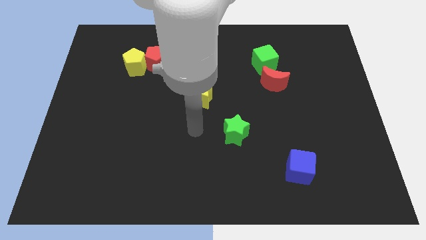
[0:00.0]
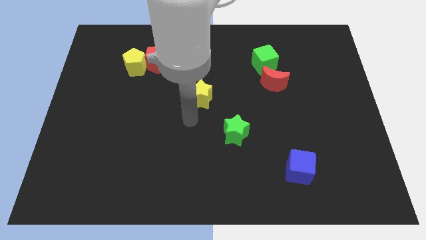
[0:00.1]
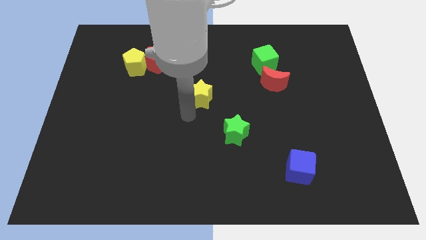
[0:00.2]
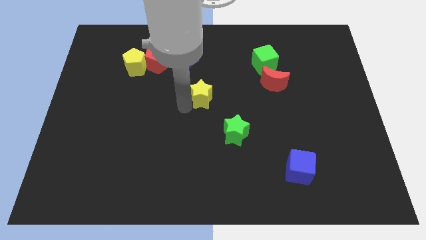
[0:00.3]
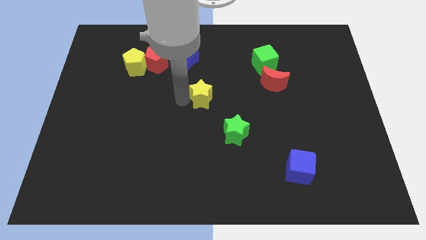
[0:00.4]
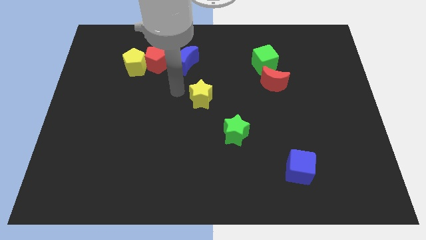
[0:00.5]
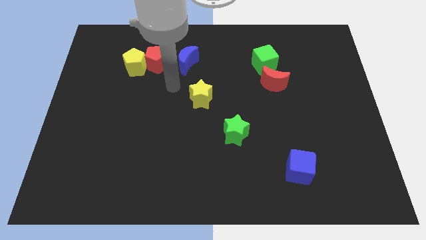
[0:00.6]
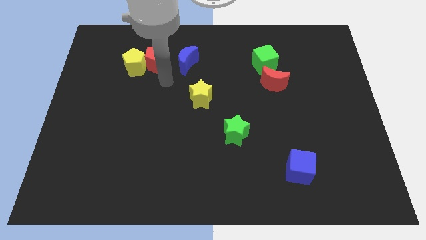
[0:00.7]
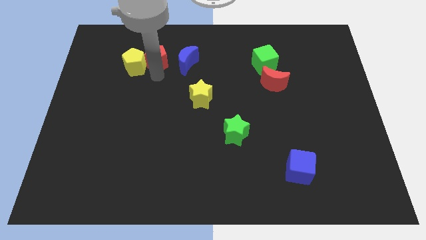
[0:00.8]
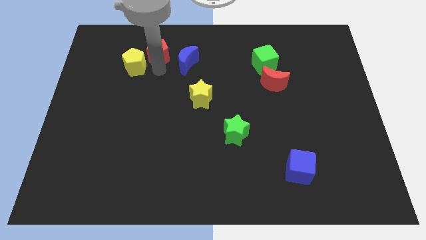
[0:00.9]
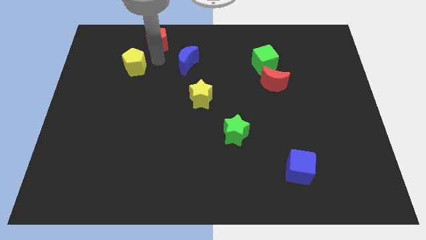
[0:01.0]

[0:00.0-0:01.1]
separate the yellow pentagon from the red pentagon

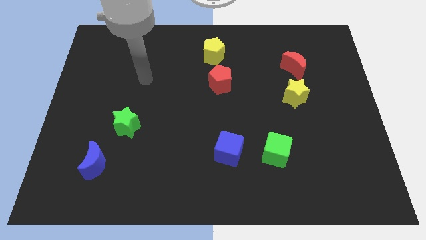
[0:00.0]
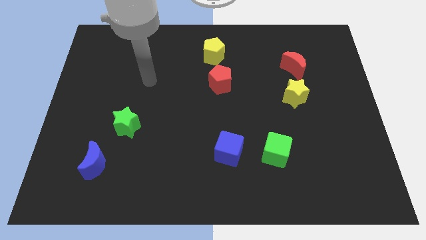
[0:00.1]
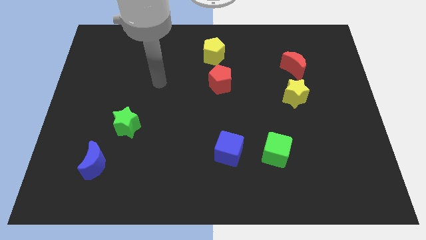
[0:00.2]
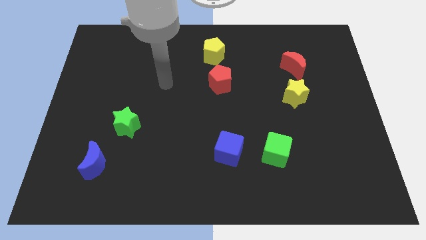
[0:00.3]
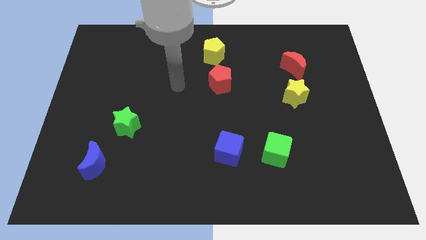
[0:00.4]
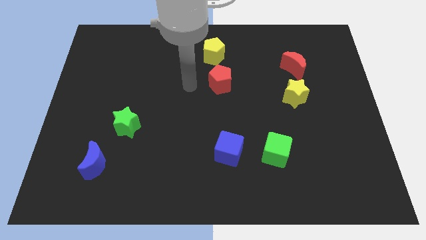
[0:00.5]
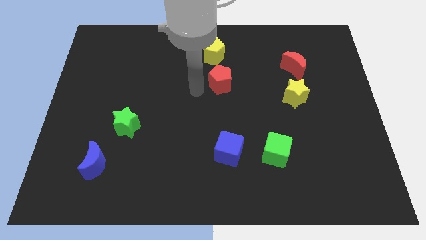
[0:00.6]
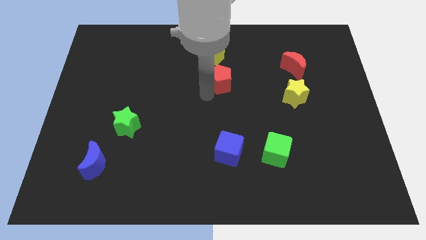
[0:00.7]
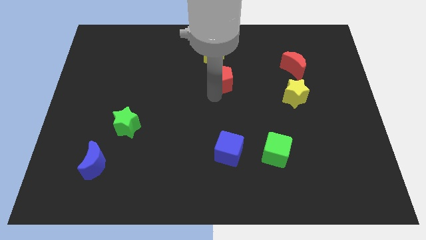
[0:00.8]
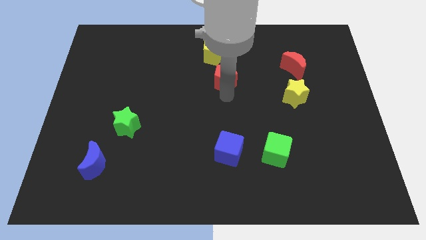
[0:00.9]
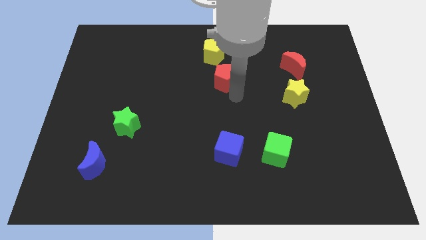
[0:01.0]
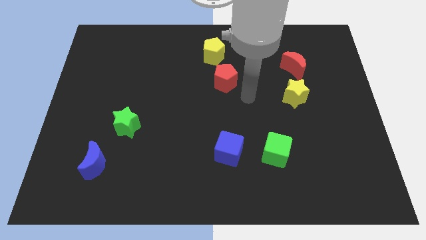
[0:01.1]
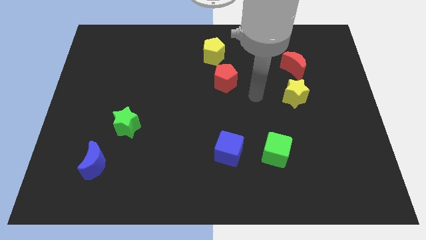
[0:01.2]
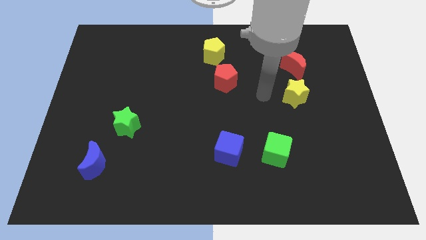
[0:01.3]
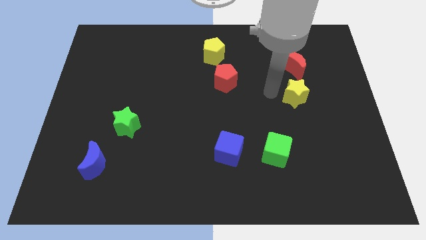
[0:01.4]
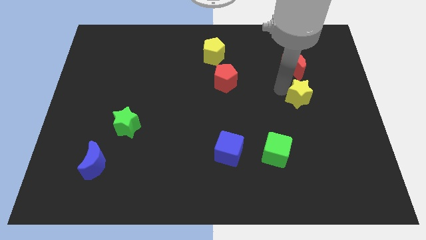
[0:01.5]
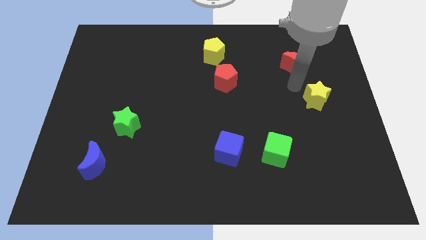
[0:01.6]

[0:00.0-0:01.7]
separate the red moon from the yellow star

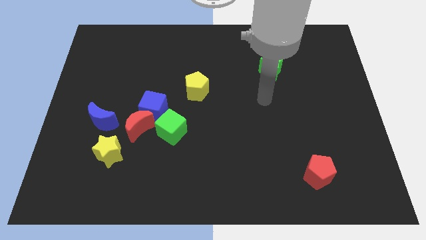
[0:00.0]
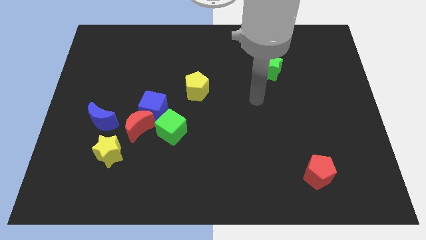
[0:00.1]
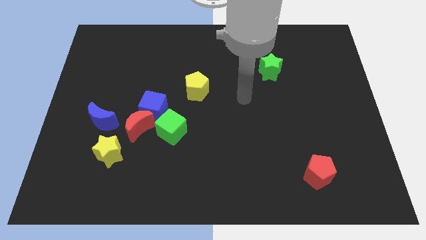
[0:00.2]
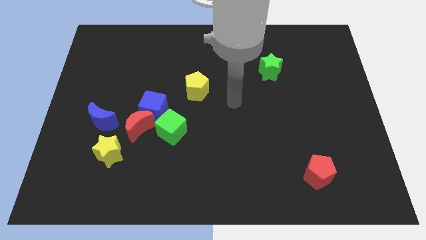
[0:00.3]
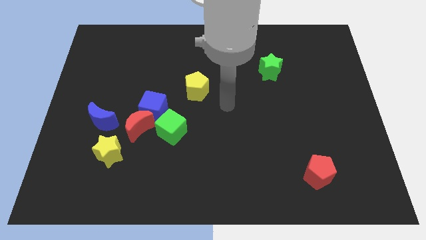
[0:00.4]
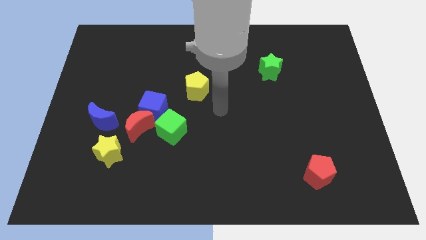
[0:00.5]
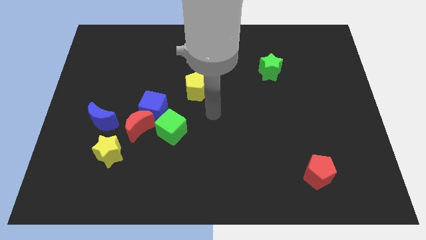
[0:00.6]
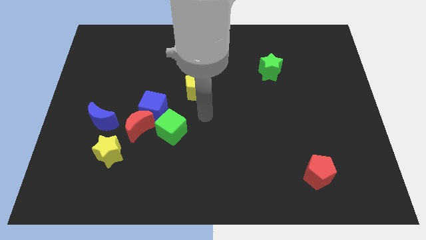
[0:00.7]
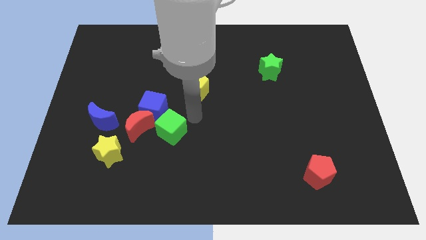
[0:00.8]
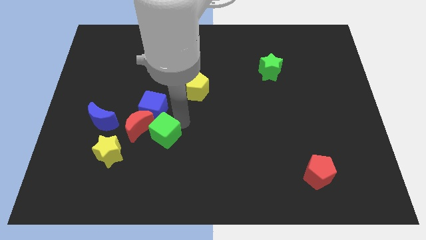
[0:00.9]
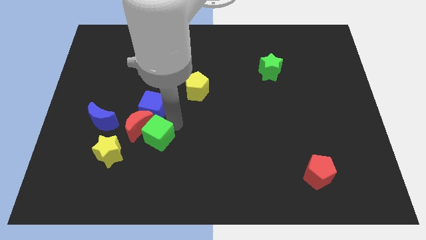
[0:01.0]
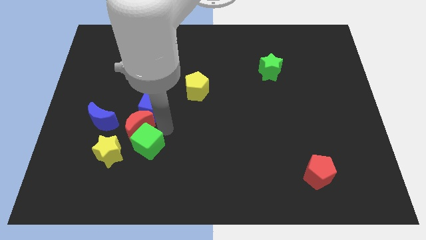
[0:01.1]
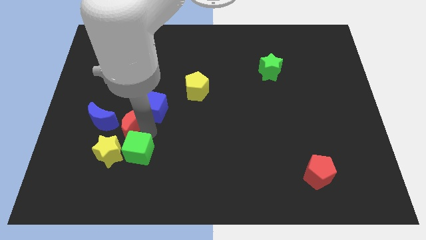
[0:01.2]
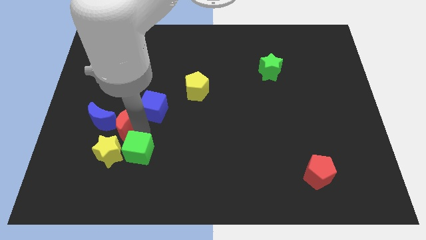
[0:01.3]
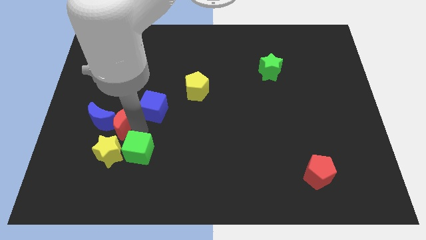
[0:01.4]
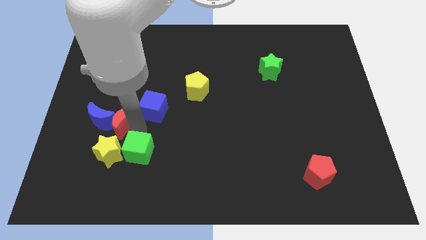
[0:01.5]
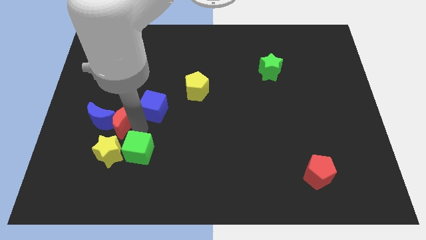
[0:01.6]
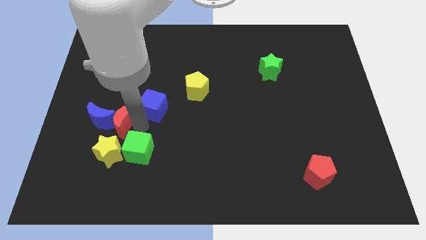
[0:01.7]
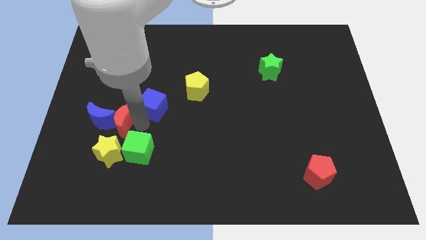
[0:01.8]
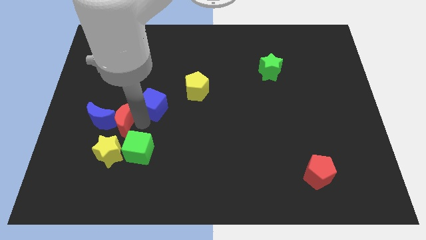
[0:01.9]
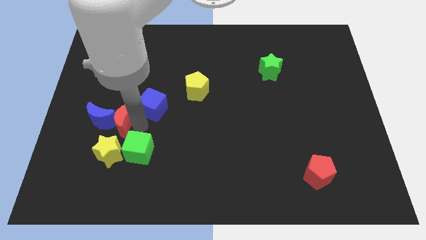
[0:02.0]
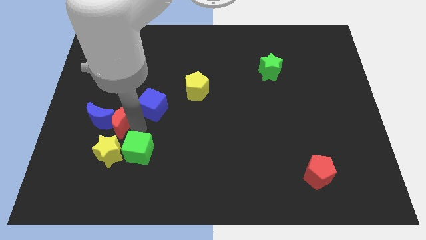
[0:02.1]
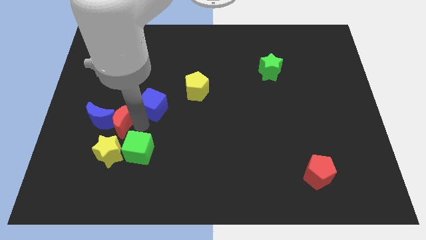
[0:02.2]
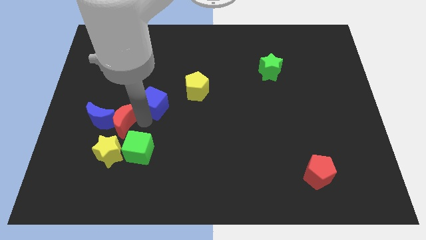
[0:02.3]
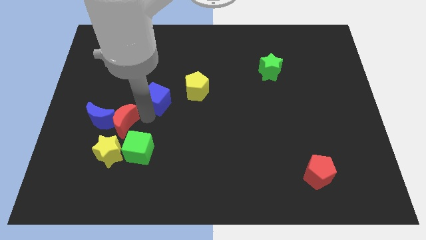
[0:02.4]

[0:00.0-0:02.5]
move the blue cube away from the red moon and green cube

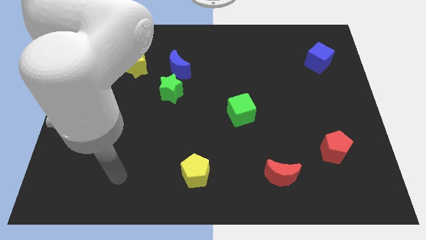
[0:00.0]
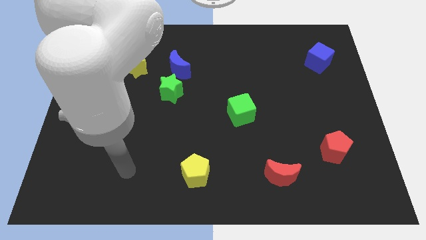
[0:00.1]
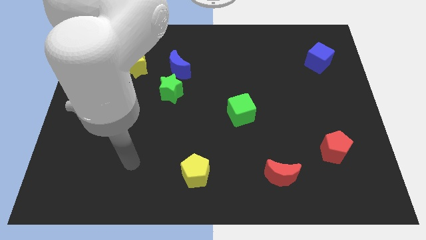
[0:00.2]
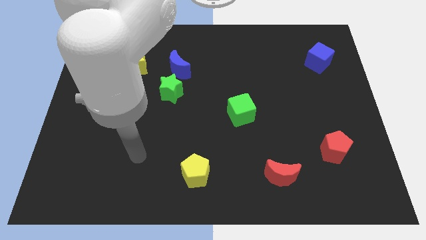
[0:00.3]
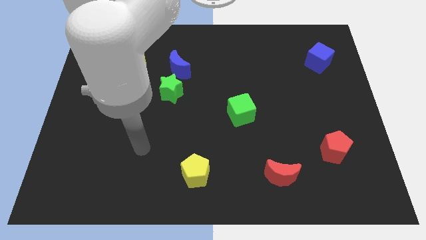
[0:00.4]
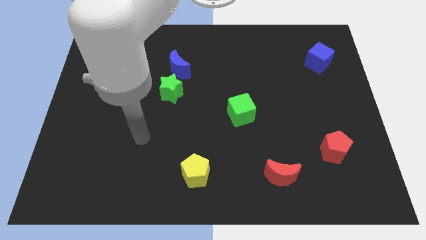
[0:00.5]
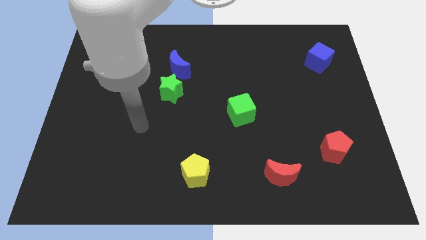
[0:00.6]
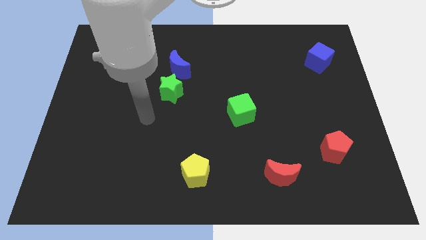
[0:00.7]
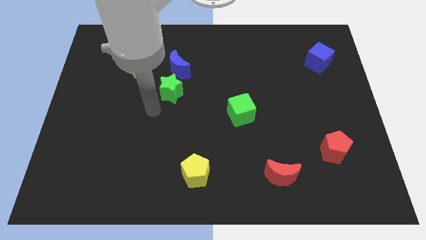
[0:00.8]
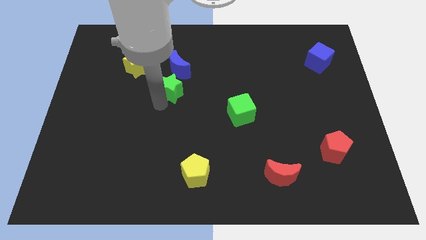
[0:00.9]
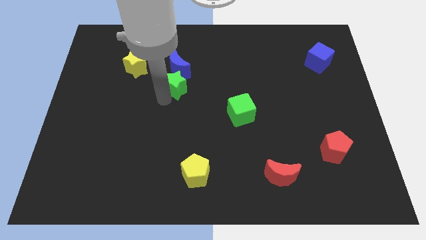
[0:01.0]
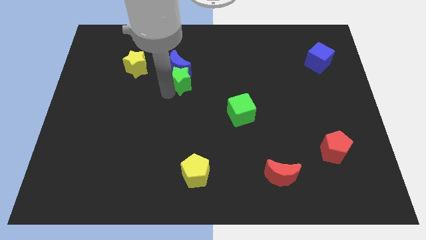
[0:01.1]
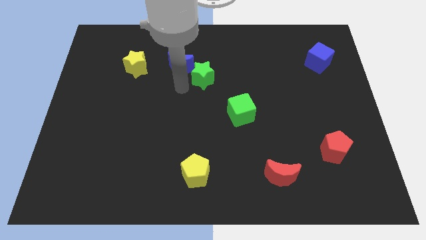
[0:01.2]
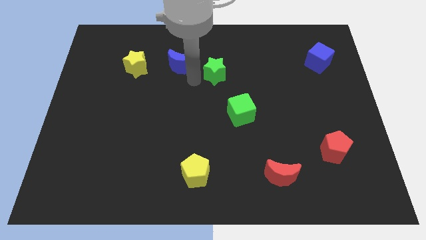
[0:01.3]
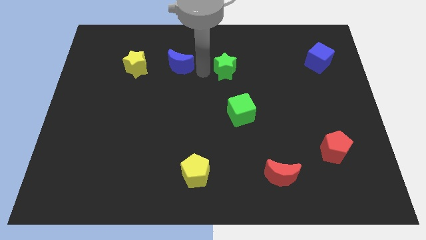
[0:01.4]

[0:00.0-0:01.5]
separate the blue moon from the green star

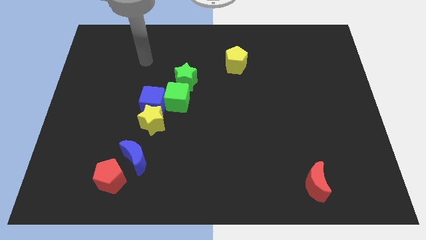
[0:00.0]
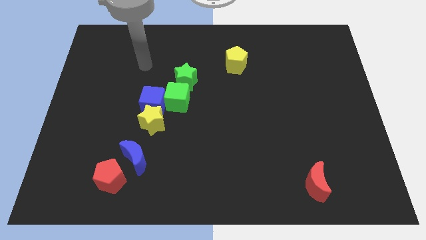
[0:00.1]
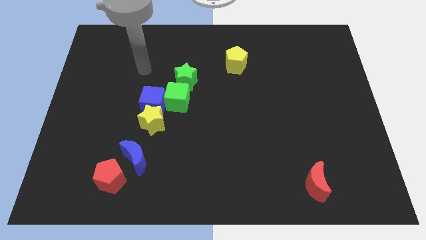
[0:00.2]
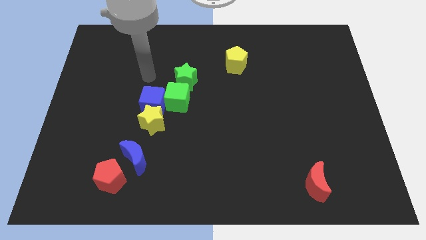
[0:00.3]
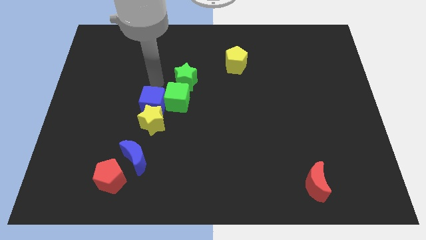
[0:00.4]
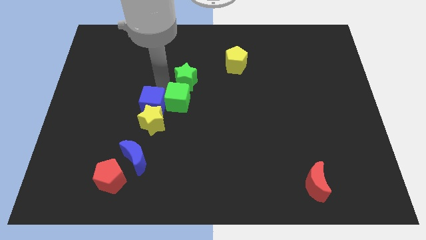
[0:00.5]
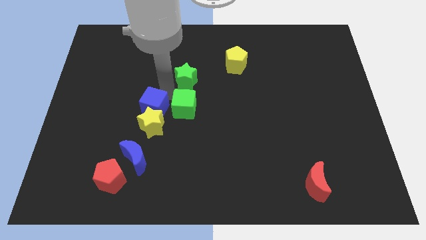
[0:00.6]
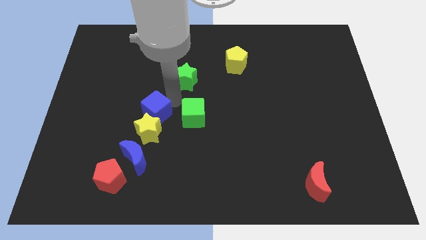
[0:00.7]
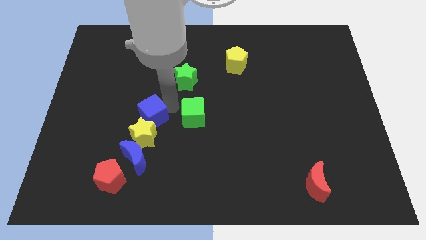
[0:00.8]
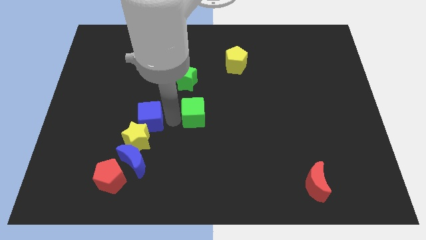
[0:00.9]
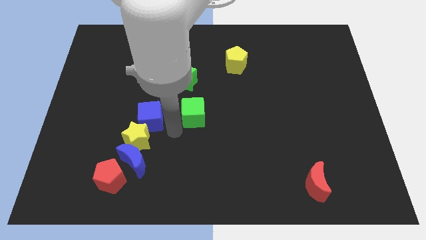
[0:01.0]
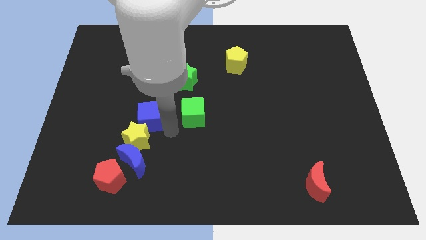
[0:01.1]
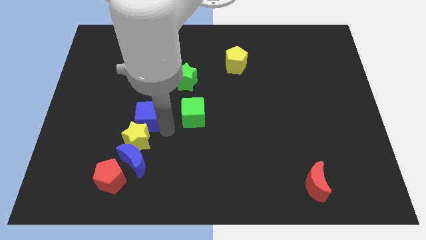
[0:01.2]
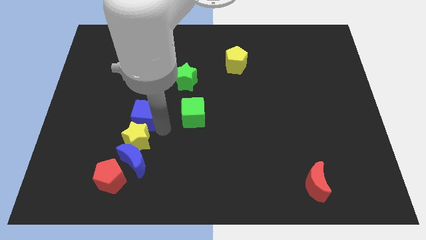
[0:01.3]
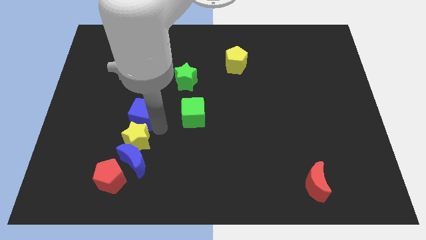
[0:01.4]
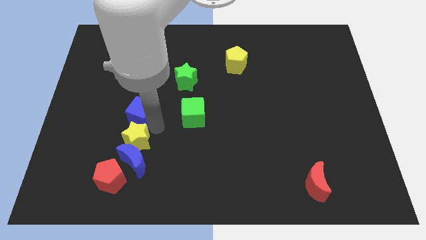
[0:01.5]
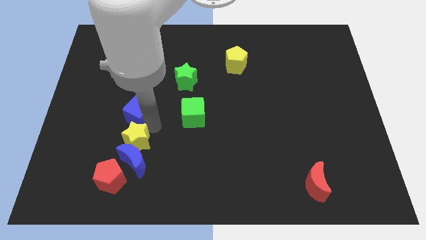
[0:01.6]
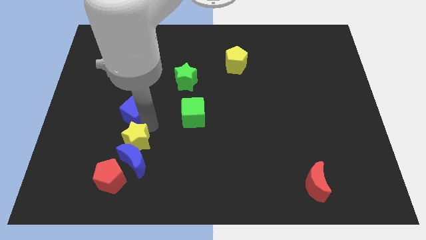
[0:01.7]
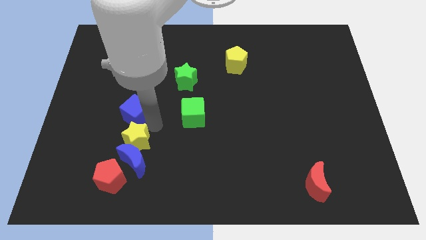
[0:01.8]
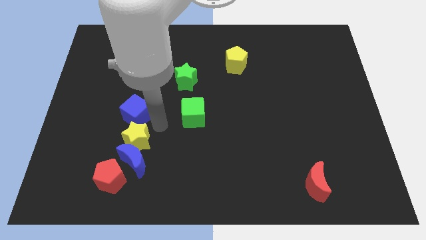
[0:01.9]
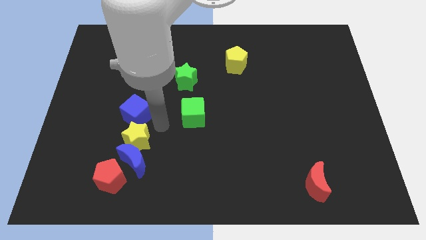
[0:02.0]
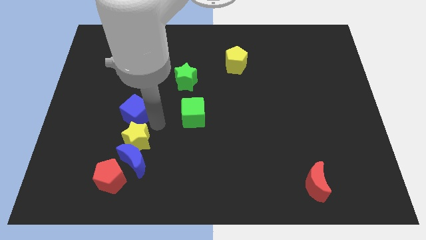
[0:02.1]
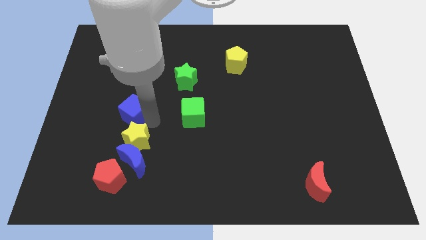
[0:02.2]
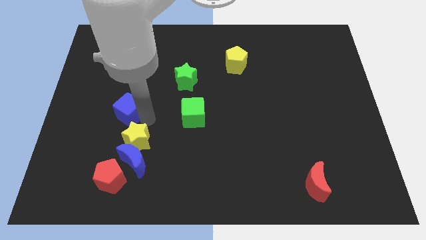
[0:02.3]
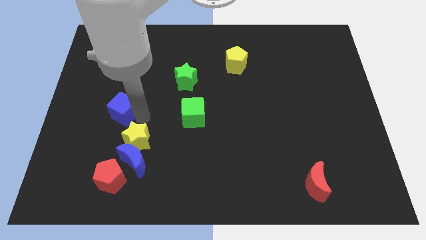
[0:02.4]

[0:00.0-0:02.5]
move the blue cube away from the yellow star and green cube
